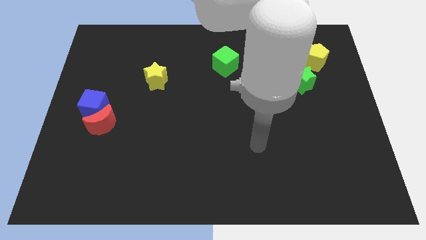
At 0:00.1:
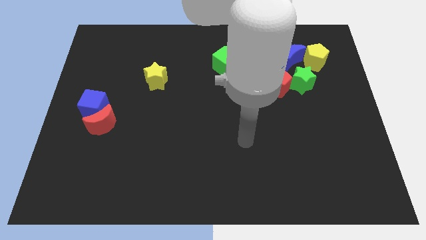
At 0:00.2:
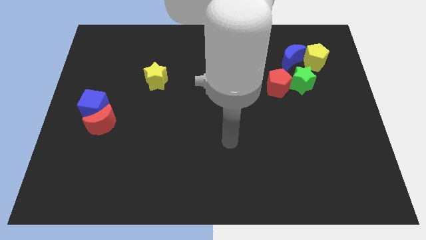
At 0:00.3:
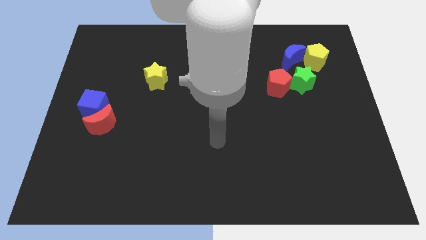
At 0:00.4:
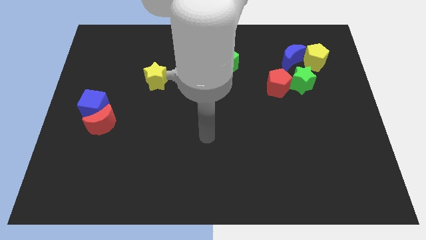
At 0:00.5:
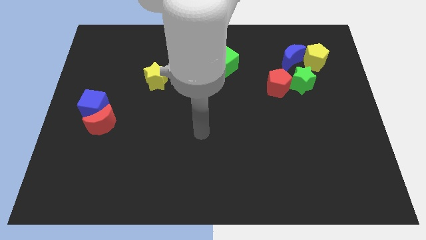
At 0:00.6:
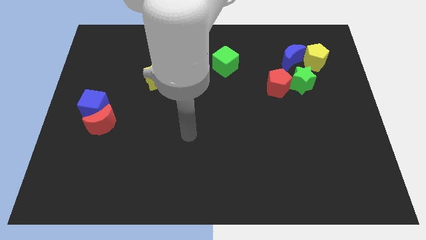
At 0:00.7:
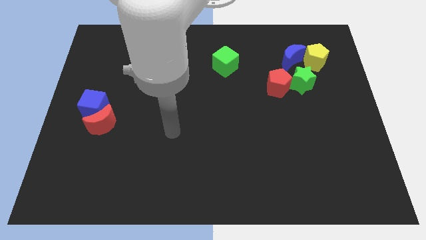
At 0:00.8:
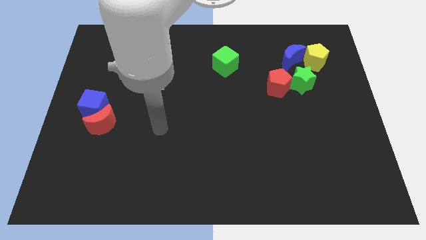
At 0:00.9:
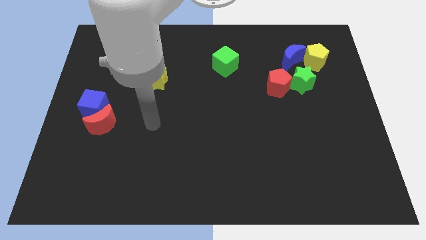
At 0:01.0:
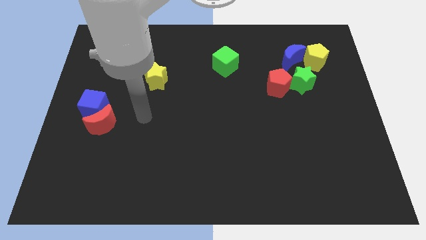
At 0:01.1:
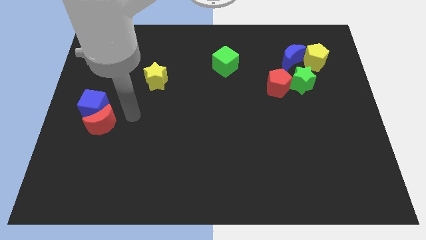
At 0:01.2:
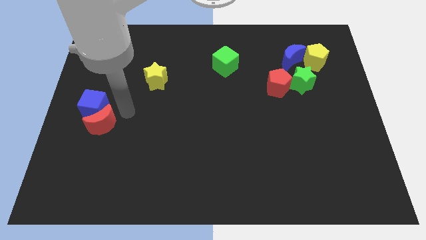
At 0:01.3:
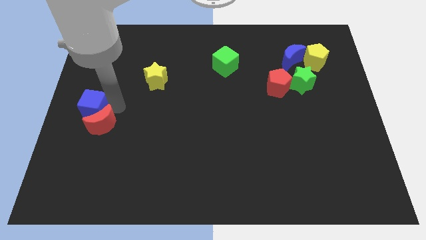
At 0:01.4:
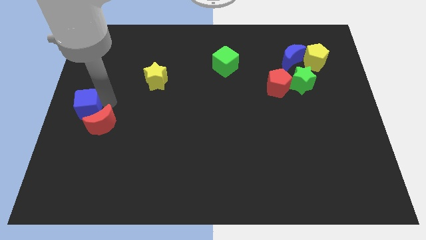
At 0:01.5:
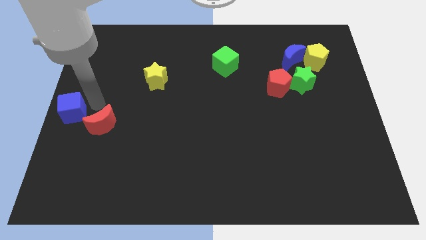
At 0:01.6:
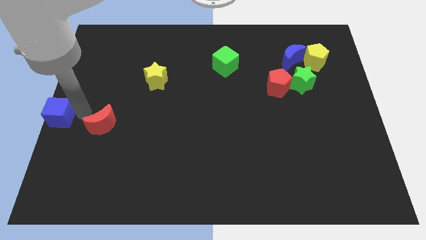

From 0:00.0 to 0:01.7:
separate the red moon from the blue cube

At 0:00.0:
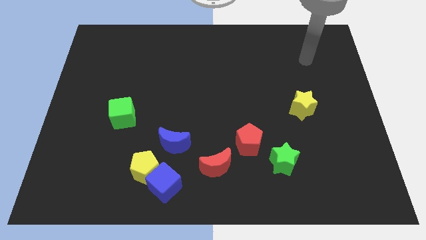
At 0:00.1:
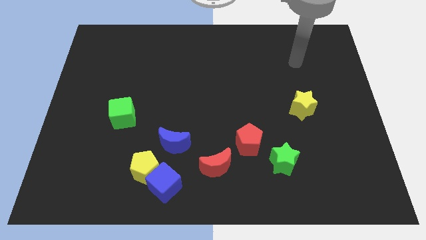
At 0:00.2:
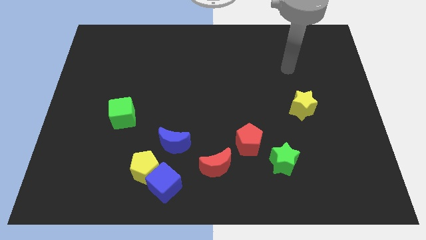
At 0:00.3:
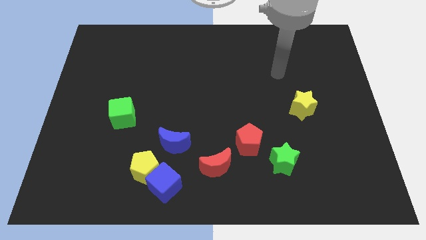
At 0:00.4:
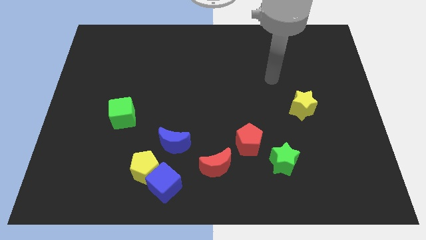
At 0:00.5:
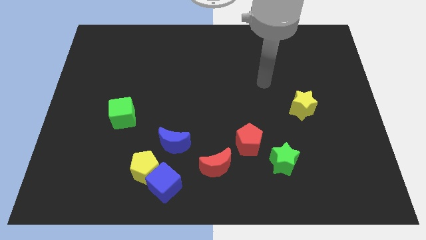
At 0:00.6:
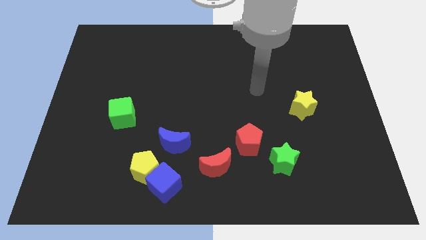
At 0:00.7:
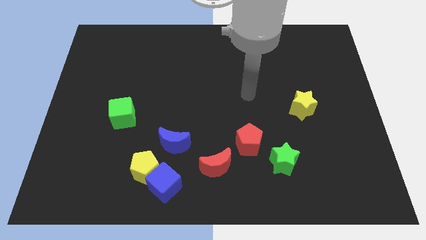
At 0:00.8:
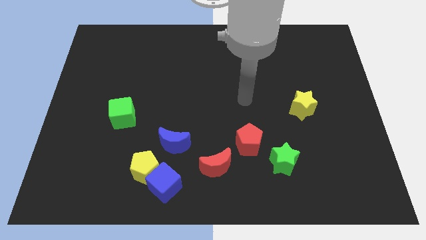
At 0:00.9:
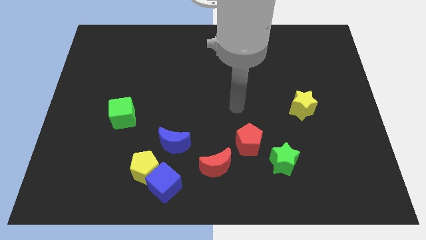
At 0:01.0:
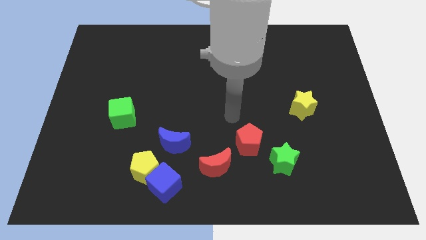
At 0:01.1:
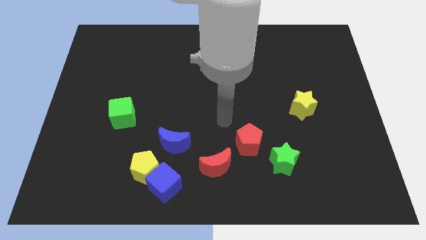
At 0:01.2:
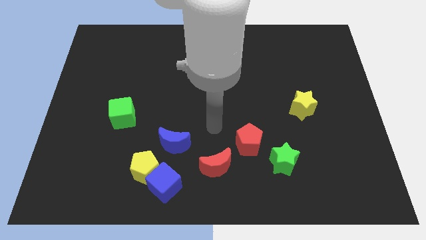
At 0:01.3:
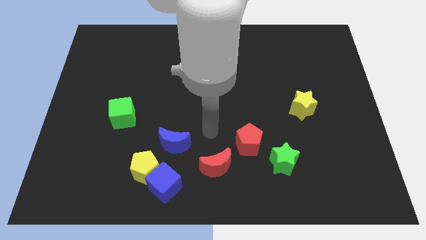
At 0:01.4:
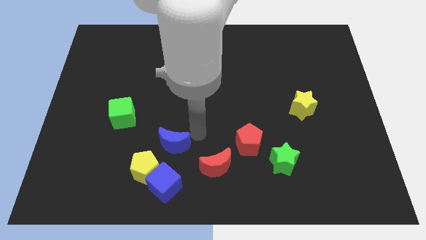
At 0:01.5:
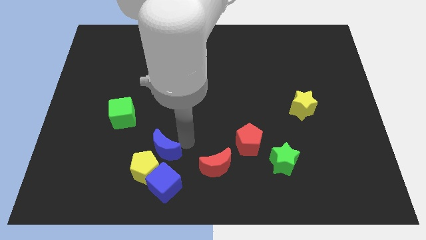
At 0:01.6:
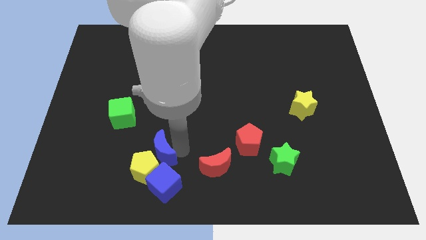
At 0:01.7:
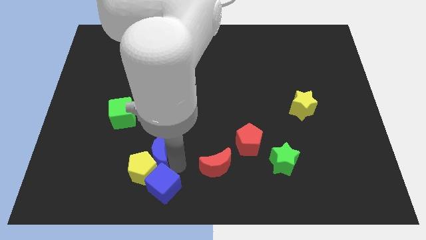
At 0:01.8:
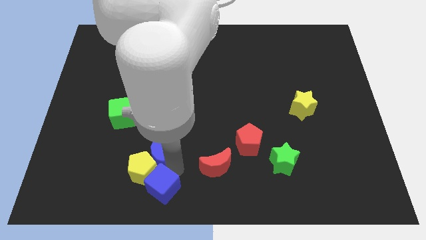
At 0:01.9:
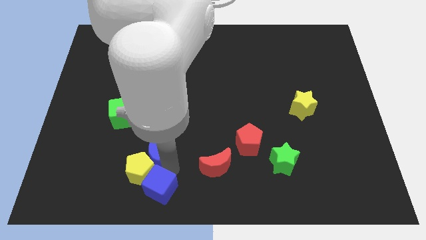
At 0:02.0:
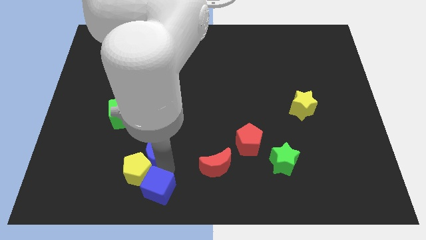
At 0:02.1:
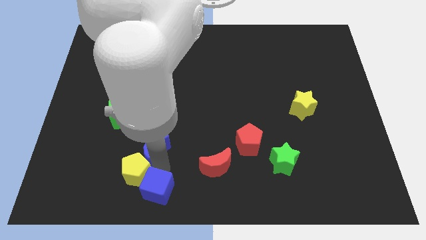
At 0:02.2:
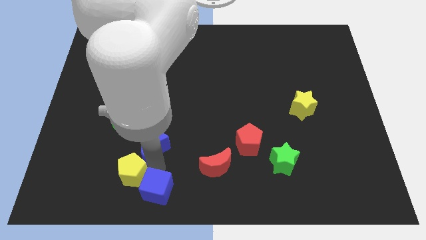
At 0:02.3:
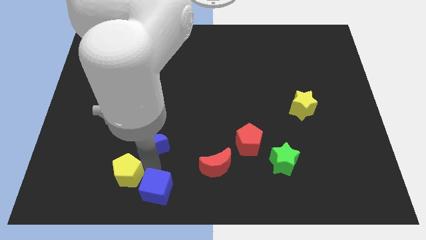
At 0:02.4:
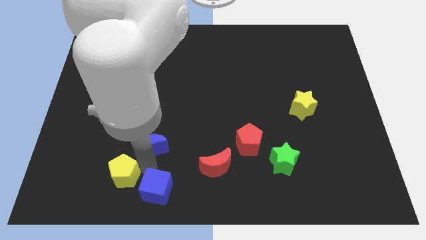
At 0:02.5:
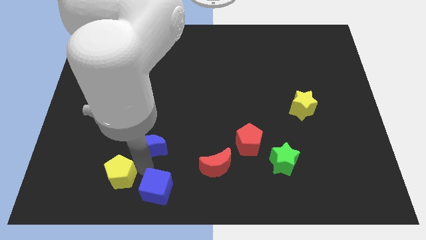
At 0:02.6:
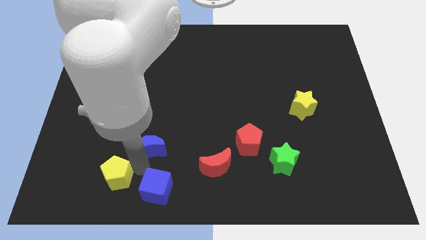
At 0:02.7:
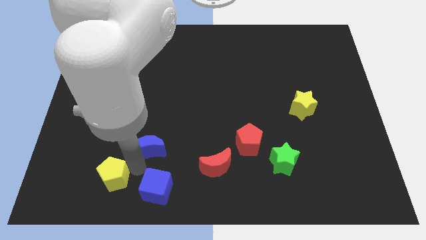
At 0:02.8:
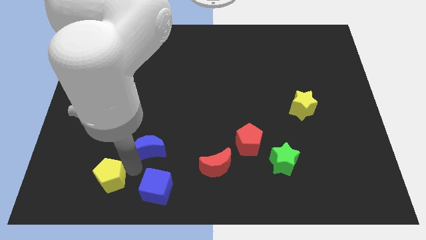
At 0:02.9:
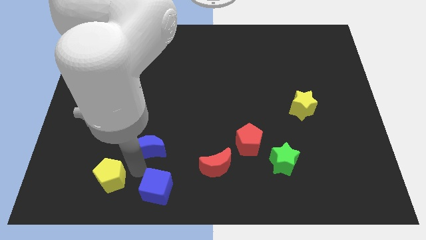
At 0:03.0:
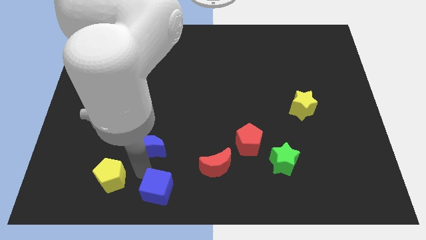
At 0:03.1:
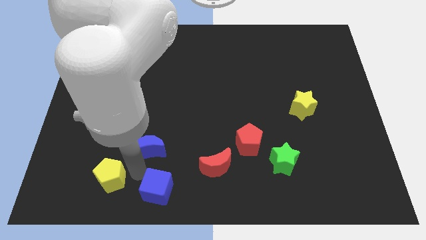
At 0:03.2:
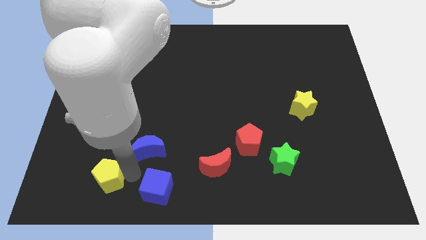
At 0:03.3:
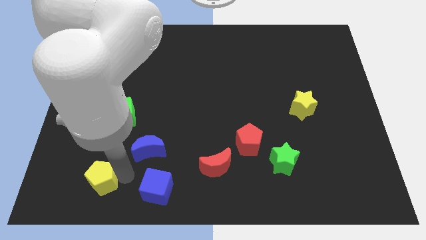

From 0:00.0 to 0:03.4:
separate the yellow pentagon from the blue cube and blue moon

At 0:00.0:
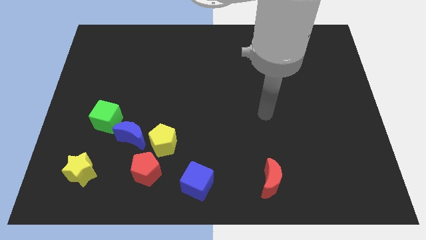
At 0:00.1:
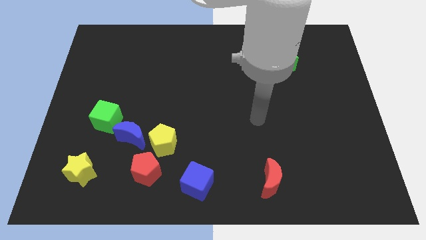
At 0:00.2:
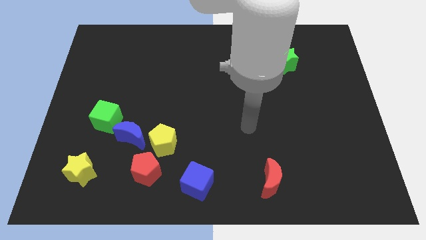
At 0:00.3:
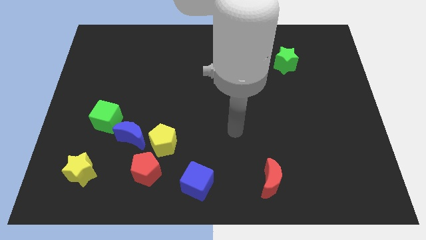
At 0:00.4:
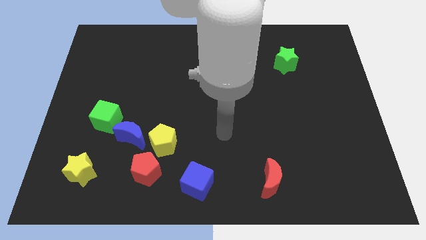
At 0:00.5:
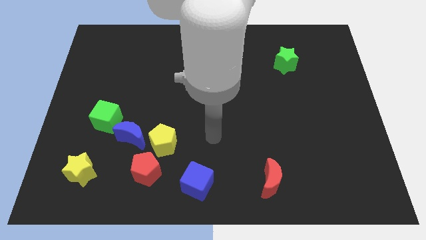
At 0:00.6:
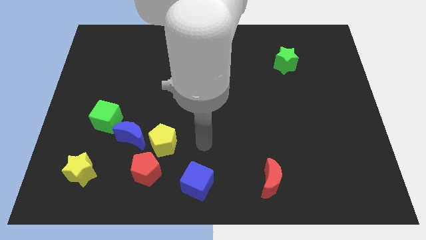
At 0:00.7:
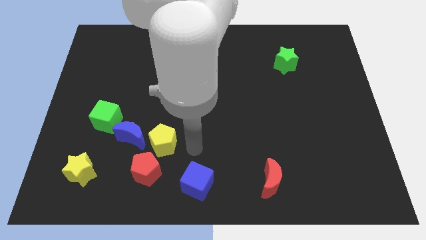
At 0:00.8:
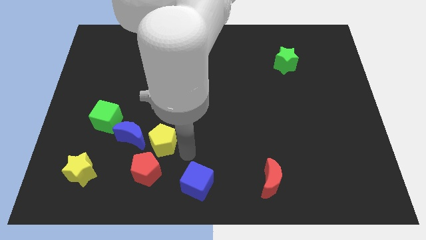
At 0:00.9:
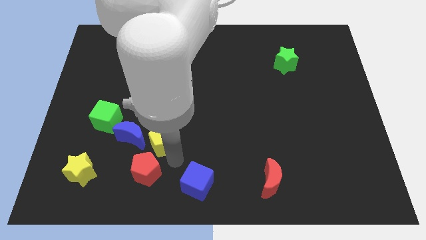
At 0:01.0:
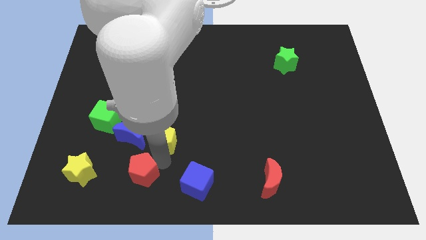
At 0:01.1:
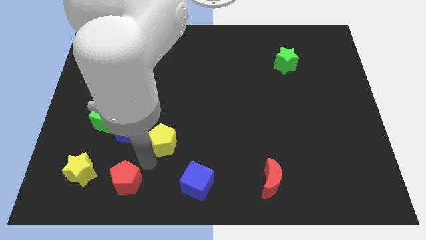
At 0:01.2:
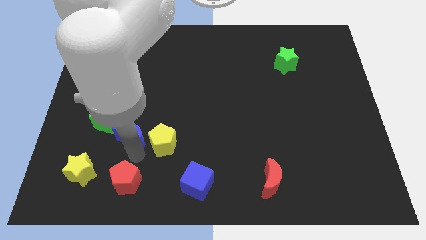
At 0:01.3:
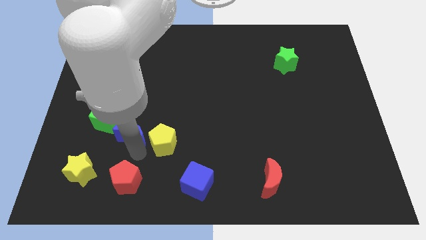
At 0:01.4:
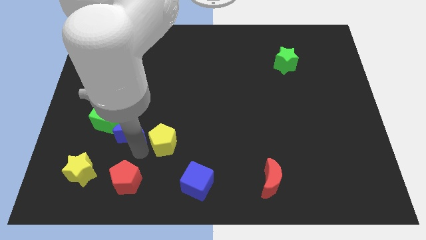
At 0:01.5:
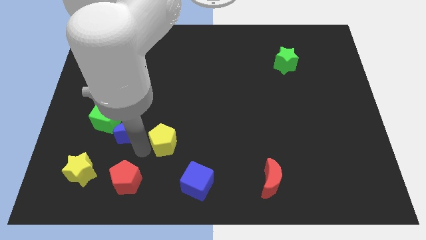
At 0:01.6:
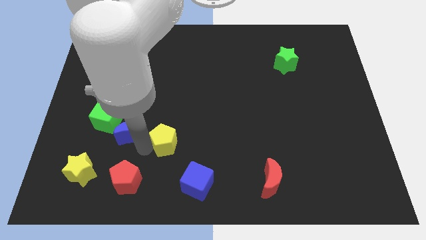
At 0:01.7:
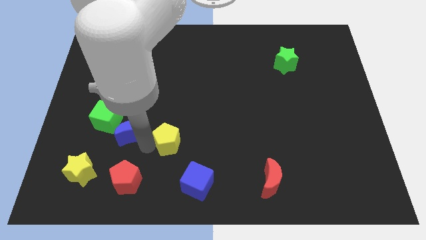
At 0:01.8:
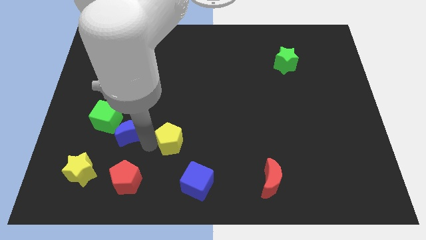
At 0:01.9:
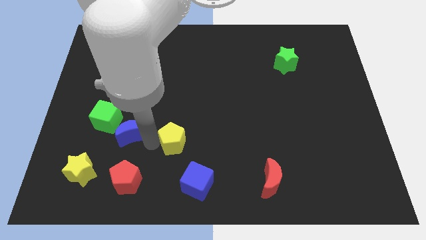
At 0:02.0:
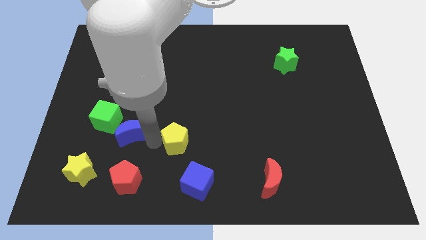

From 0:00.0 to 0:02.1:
pull the yellow pentagon apart from the blue moon and red pentagon

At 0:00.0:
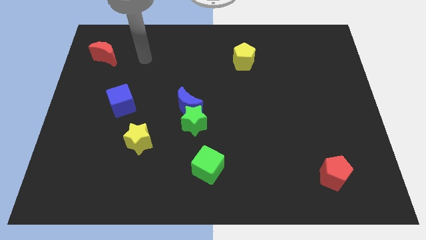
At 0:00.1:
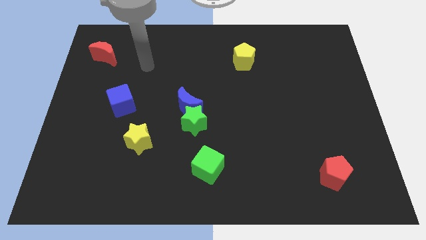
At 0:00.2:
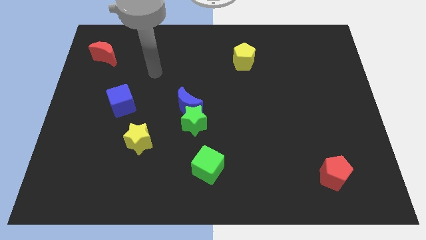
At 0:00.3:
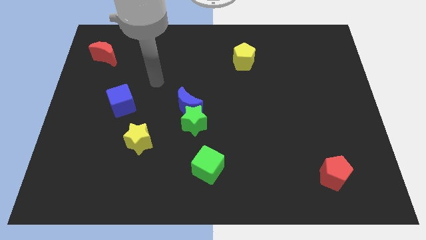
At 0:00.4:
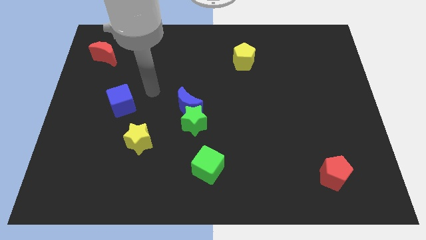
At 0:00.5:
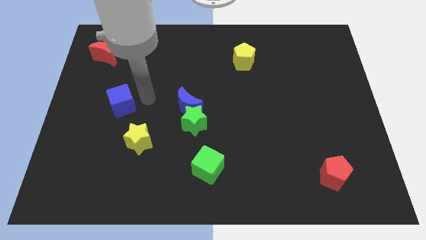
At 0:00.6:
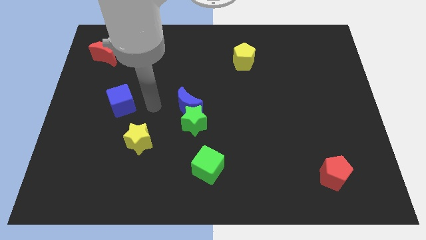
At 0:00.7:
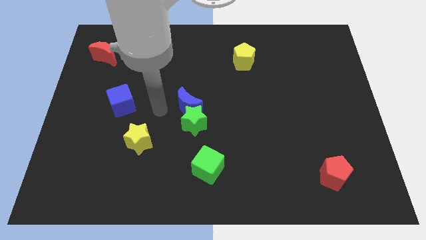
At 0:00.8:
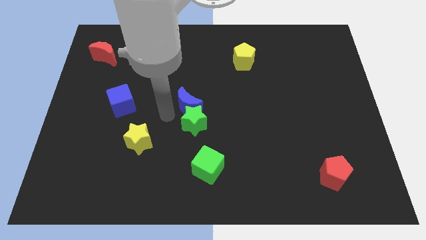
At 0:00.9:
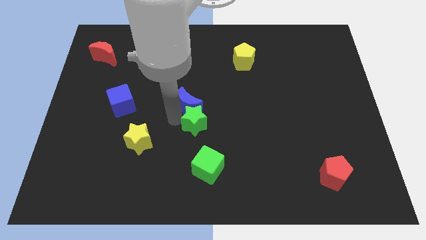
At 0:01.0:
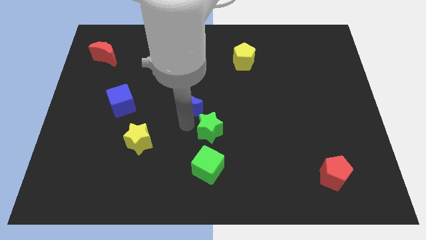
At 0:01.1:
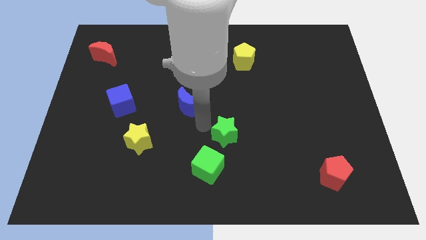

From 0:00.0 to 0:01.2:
move the blue moon away from the green star

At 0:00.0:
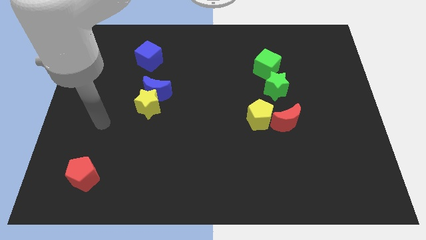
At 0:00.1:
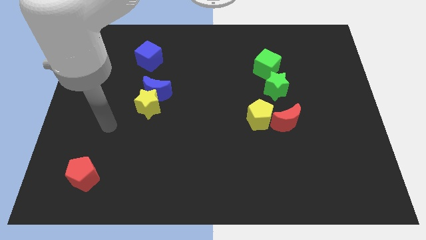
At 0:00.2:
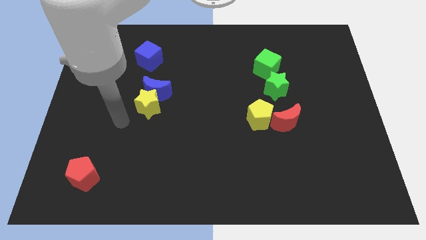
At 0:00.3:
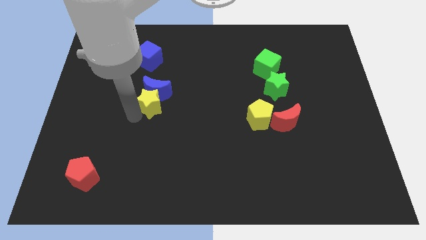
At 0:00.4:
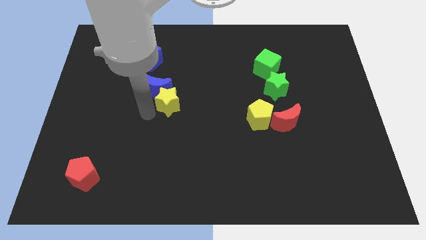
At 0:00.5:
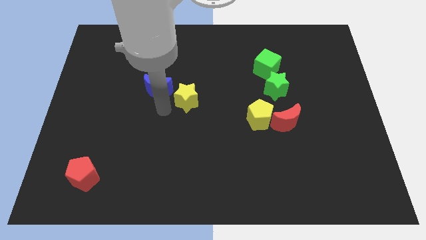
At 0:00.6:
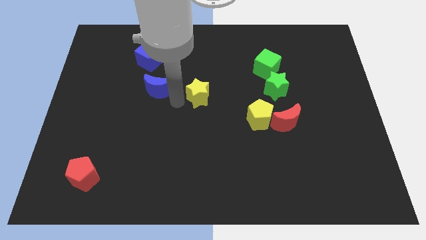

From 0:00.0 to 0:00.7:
move the blue moon away from the yellow star
